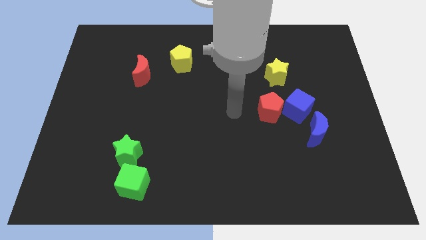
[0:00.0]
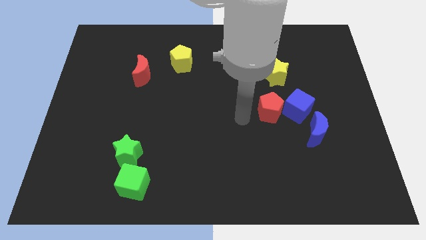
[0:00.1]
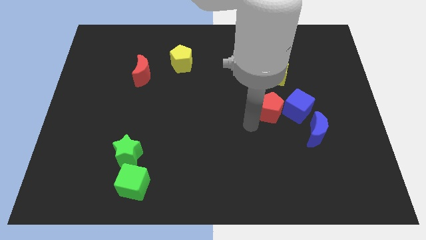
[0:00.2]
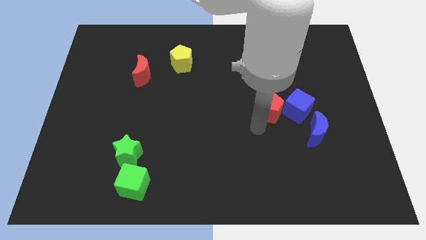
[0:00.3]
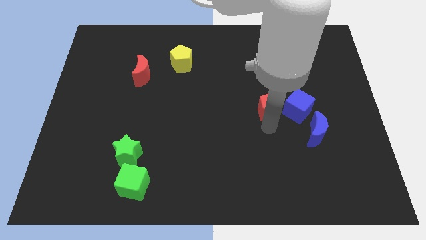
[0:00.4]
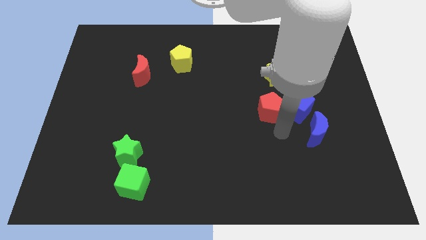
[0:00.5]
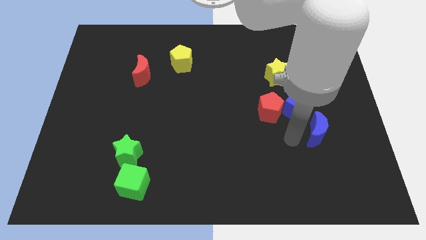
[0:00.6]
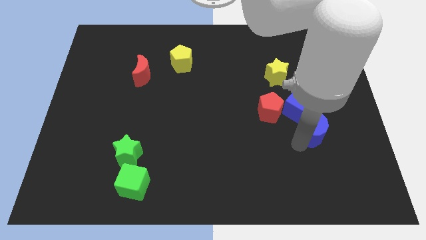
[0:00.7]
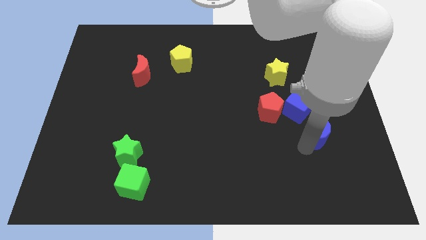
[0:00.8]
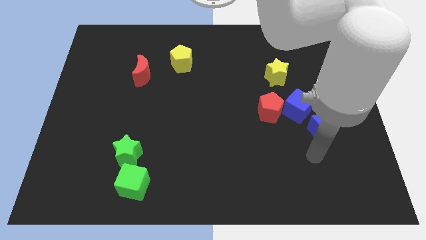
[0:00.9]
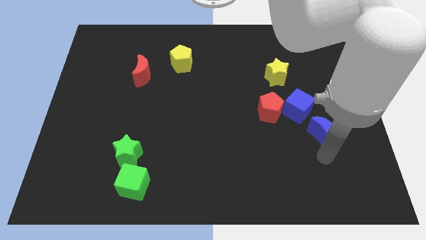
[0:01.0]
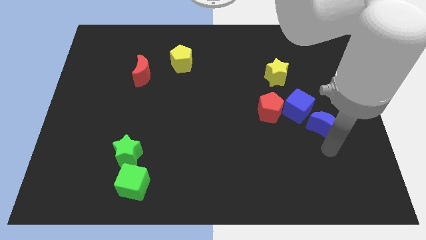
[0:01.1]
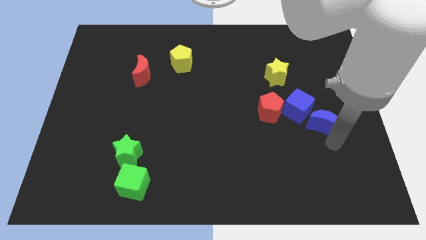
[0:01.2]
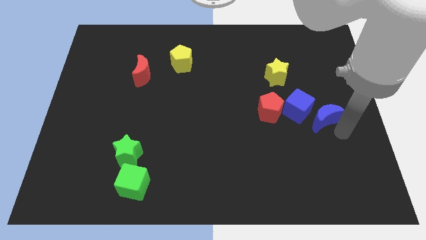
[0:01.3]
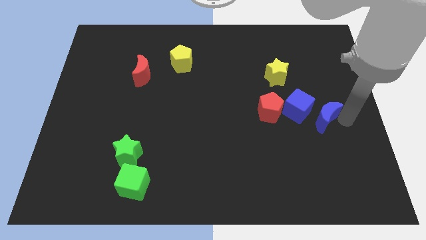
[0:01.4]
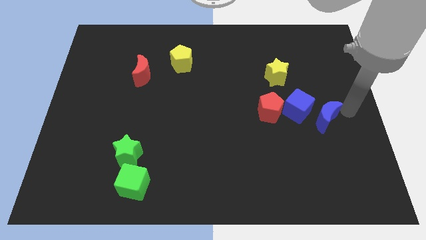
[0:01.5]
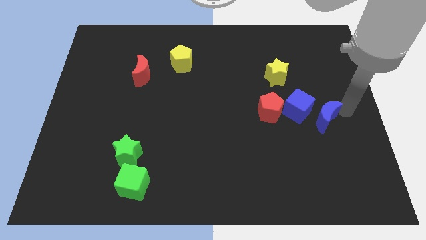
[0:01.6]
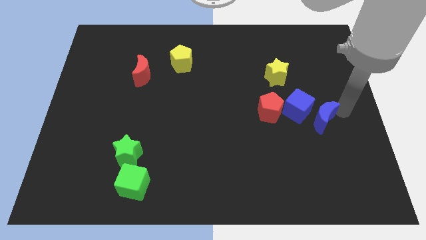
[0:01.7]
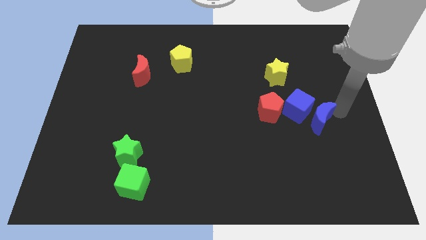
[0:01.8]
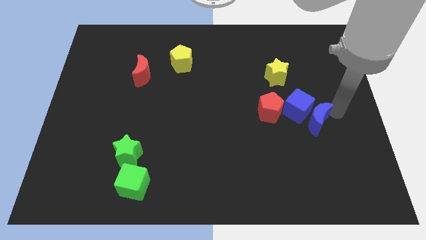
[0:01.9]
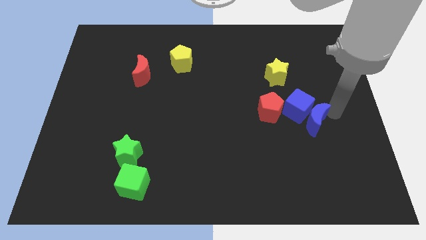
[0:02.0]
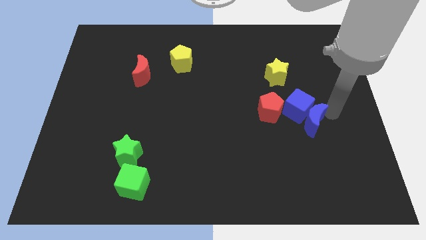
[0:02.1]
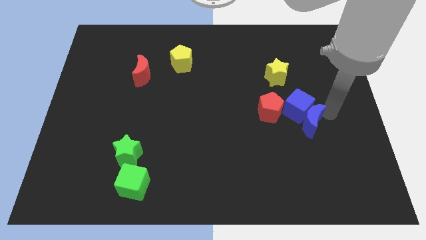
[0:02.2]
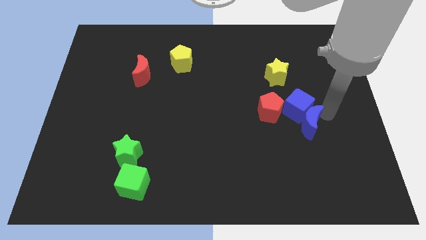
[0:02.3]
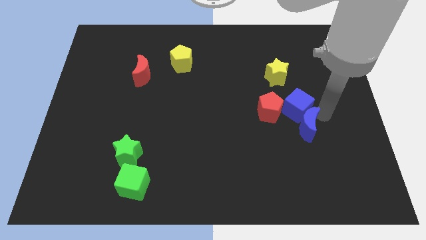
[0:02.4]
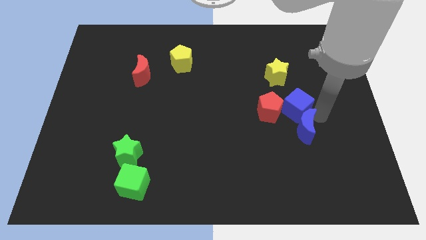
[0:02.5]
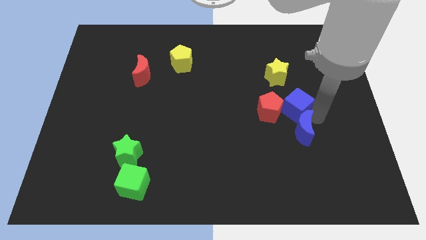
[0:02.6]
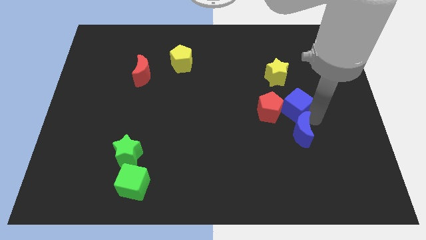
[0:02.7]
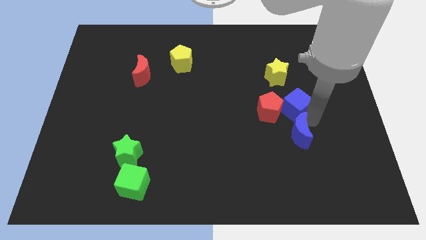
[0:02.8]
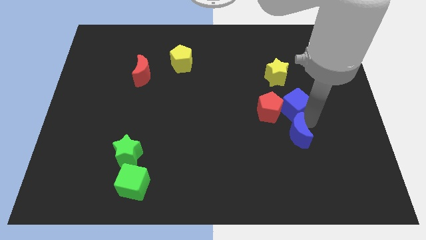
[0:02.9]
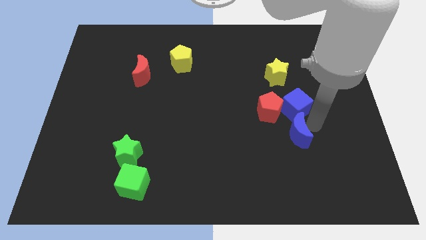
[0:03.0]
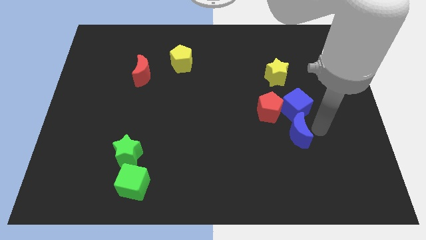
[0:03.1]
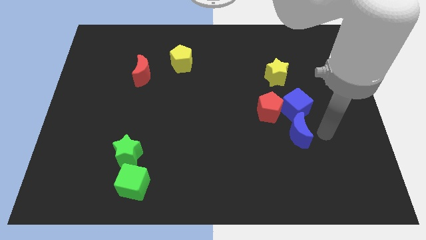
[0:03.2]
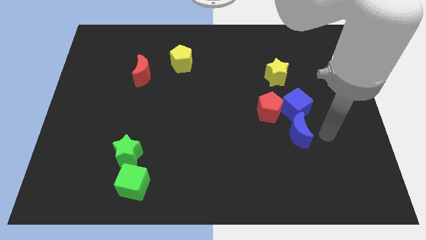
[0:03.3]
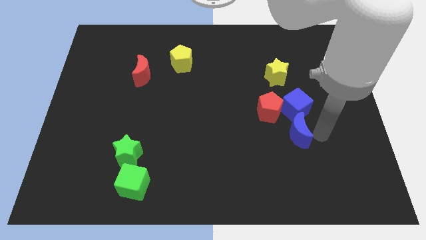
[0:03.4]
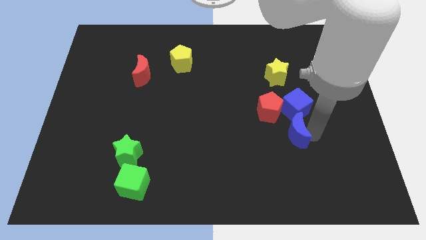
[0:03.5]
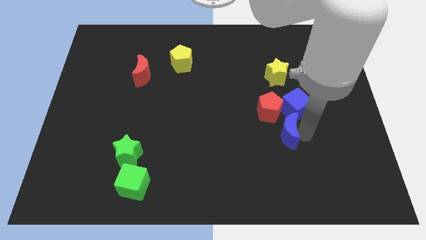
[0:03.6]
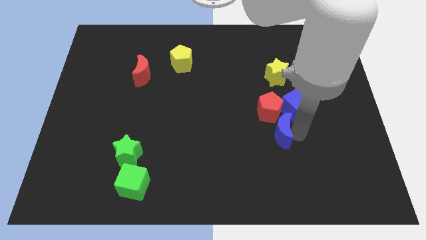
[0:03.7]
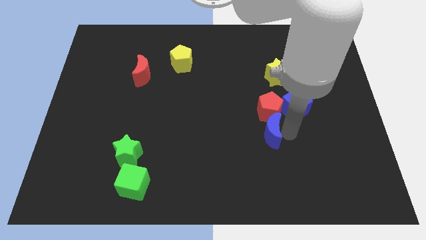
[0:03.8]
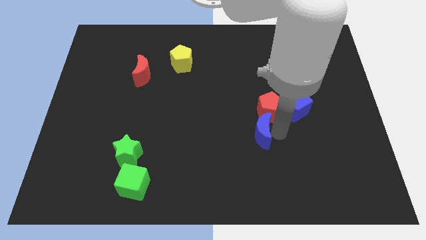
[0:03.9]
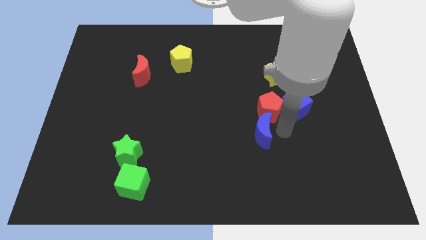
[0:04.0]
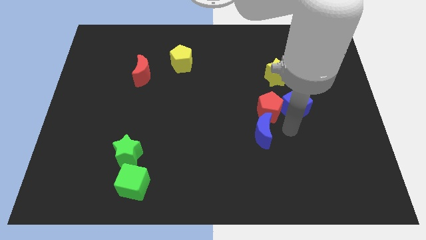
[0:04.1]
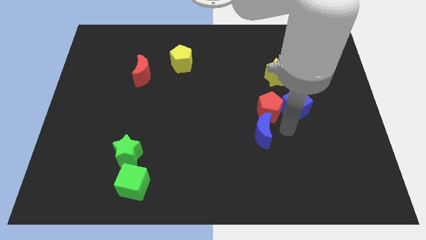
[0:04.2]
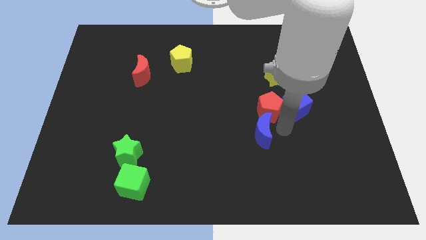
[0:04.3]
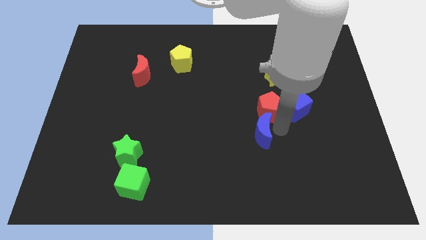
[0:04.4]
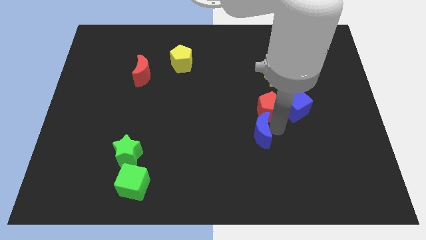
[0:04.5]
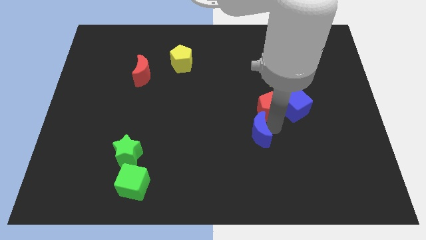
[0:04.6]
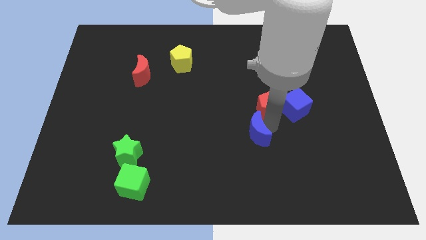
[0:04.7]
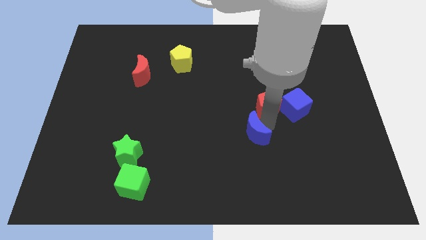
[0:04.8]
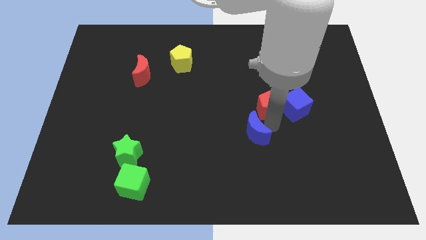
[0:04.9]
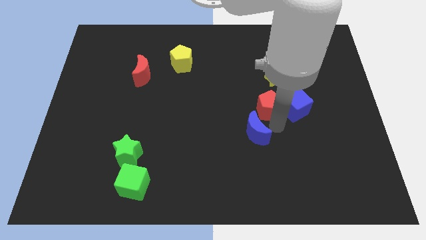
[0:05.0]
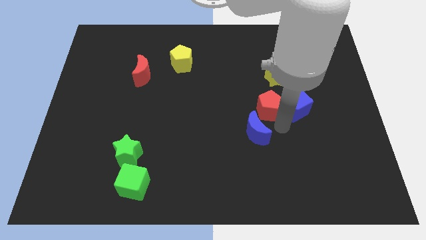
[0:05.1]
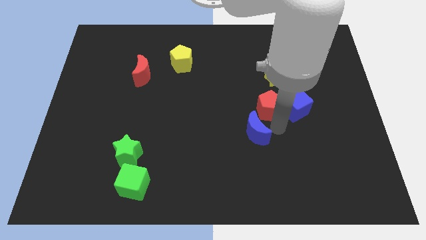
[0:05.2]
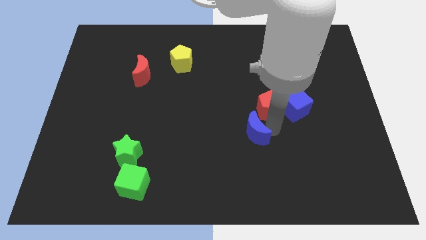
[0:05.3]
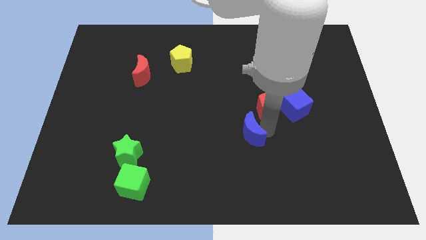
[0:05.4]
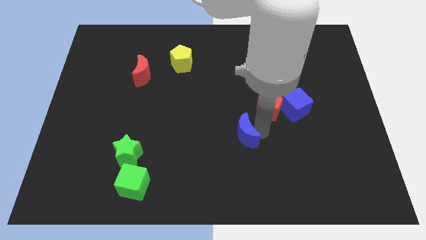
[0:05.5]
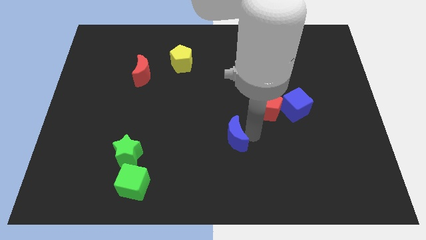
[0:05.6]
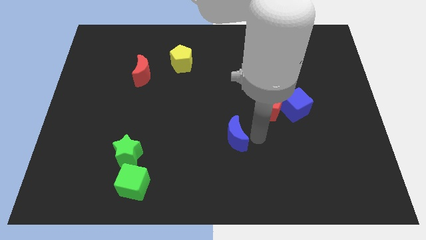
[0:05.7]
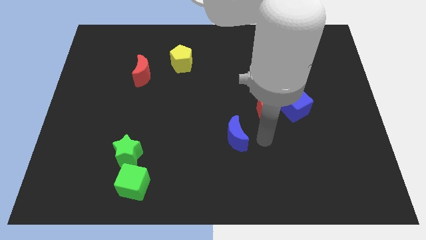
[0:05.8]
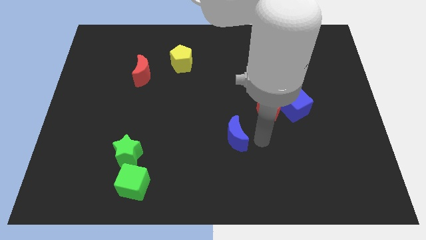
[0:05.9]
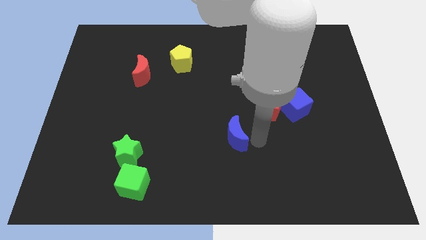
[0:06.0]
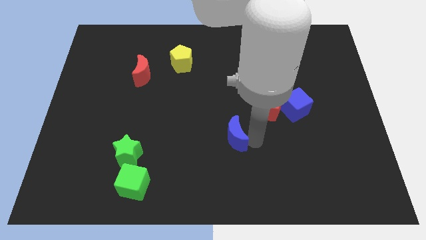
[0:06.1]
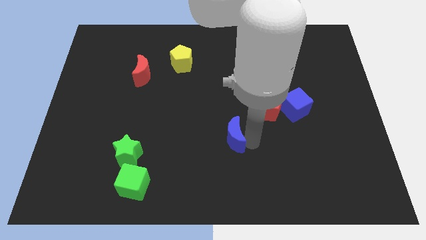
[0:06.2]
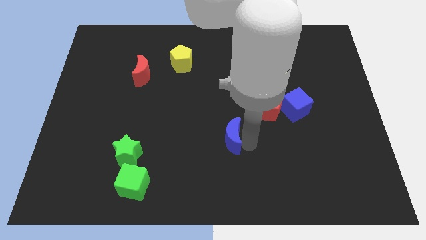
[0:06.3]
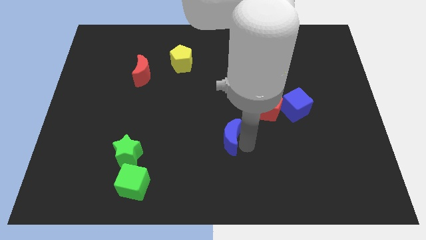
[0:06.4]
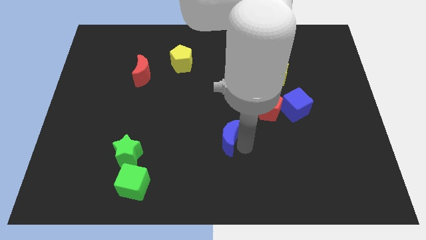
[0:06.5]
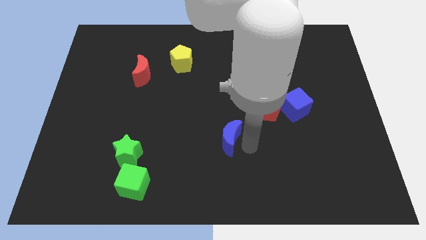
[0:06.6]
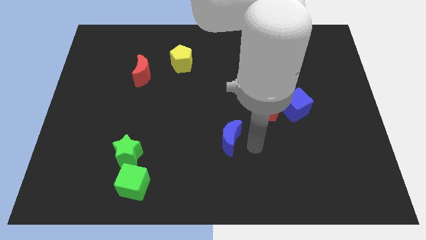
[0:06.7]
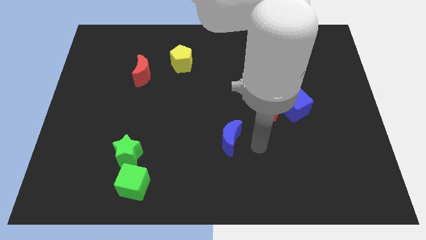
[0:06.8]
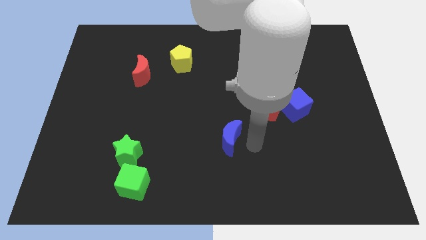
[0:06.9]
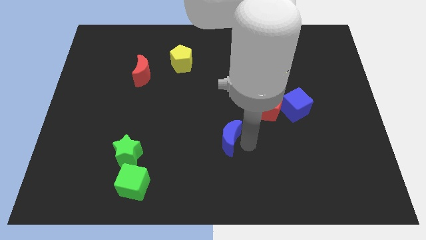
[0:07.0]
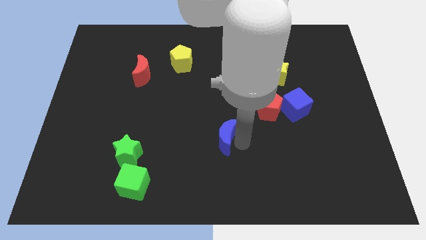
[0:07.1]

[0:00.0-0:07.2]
move the blue moon left

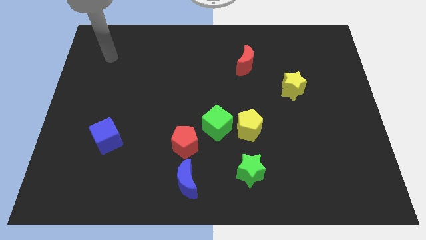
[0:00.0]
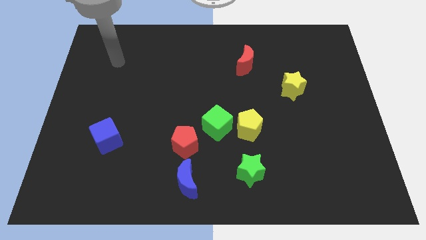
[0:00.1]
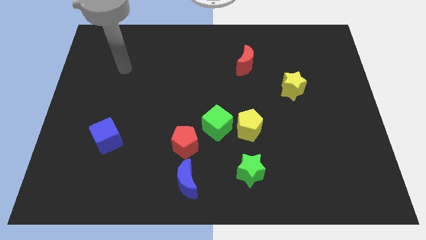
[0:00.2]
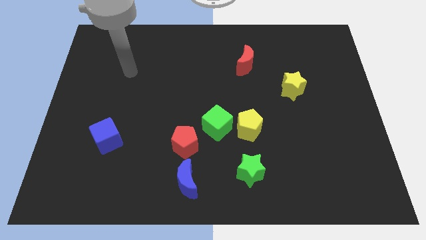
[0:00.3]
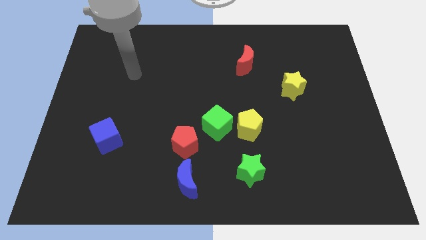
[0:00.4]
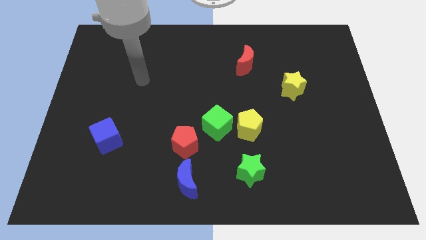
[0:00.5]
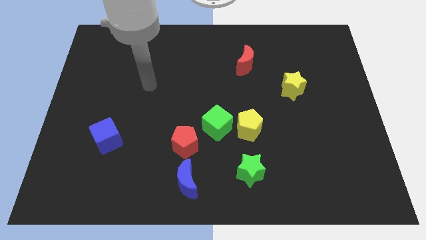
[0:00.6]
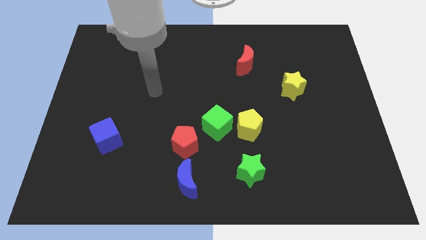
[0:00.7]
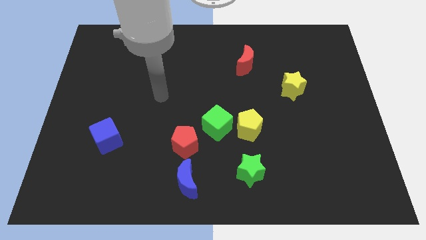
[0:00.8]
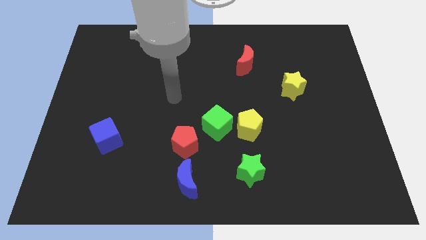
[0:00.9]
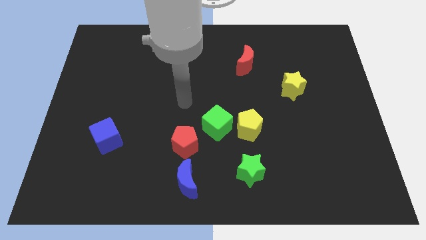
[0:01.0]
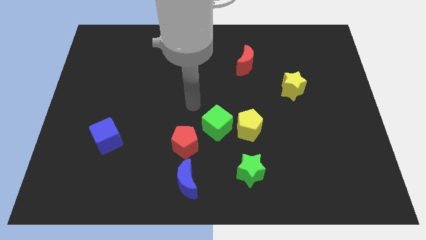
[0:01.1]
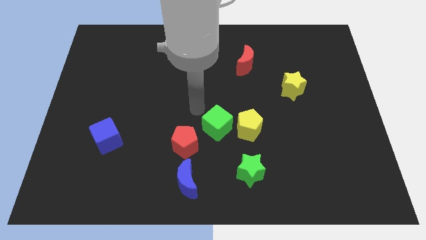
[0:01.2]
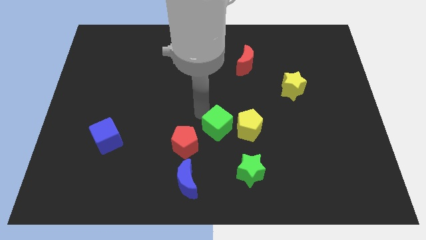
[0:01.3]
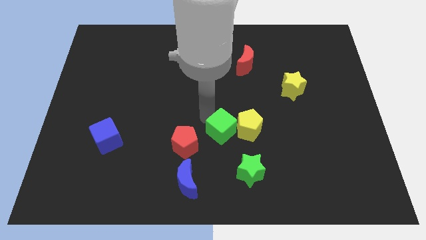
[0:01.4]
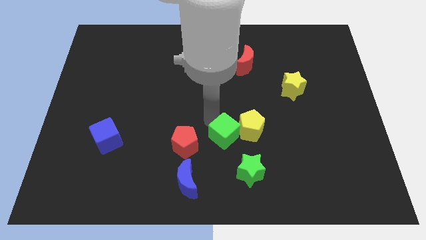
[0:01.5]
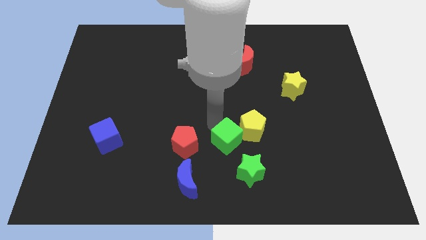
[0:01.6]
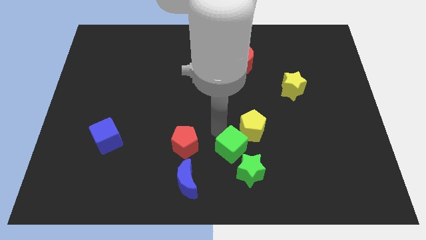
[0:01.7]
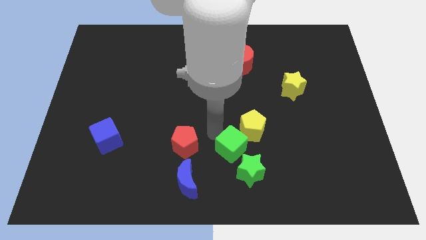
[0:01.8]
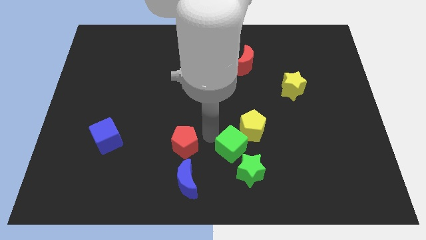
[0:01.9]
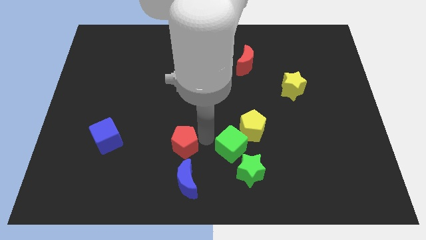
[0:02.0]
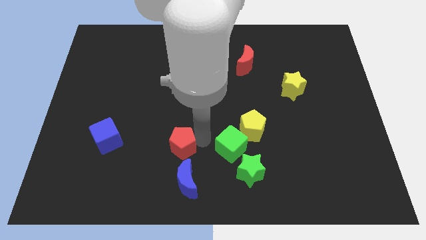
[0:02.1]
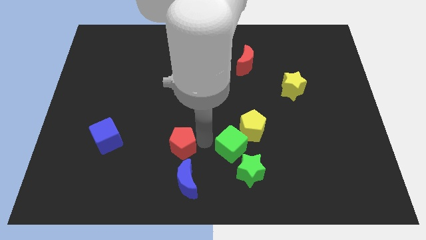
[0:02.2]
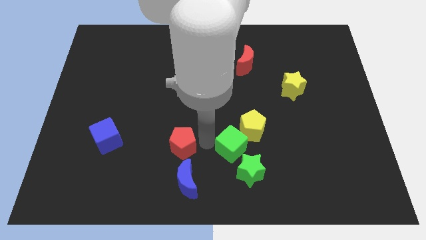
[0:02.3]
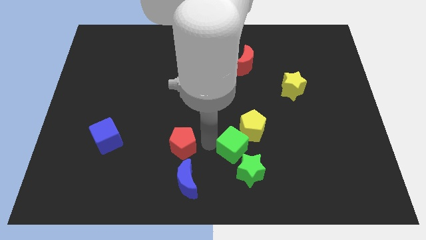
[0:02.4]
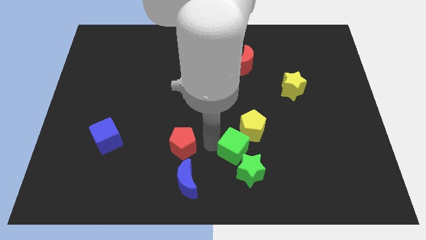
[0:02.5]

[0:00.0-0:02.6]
slightly move the green cube down and to the right
